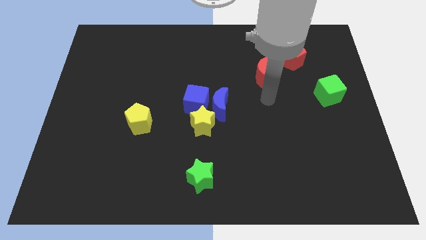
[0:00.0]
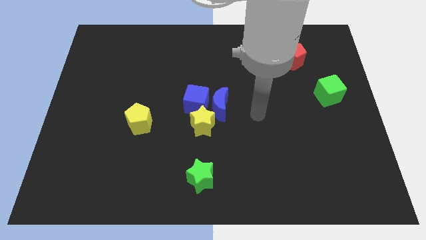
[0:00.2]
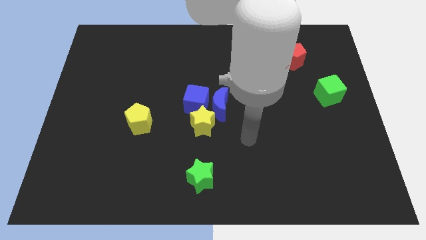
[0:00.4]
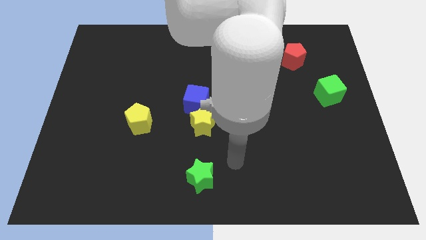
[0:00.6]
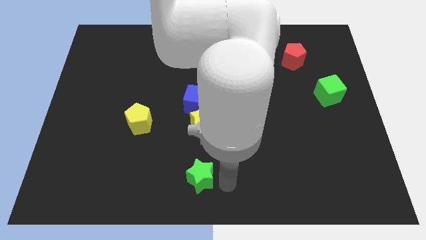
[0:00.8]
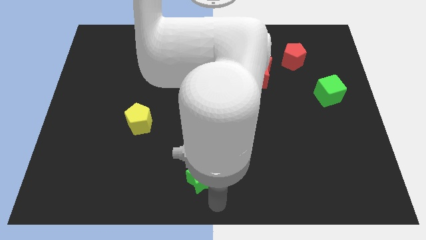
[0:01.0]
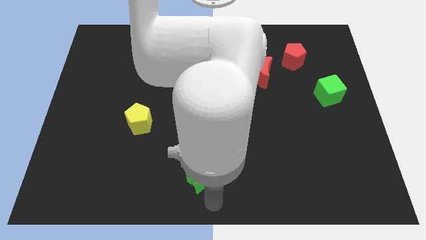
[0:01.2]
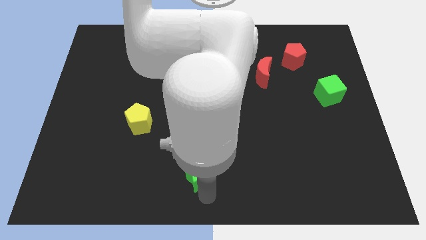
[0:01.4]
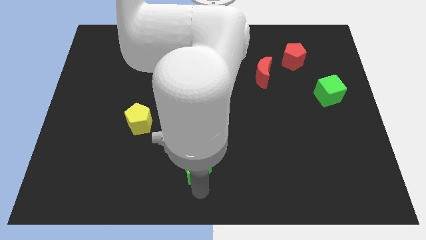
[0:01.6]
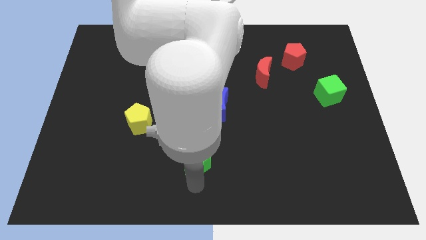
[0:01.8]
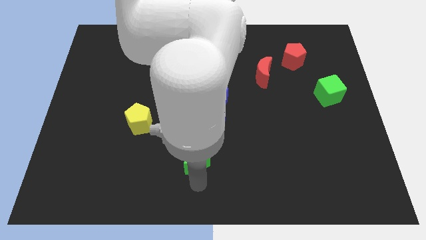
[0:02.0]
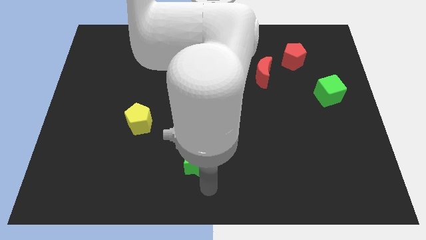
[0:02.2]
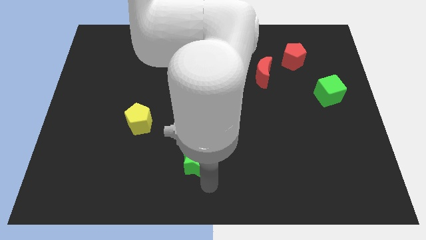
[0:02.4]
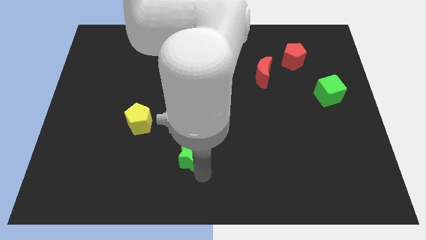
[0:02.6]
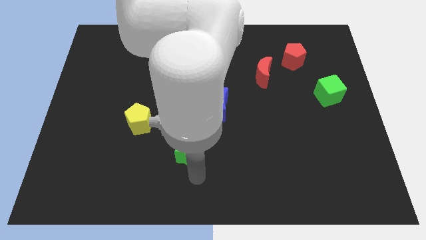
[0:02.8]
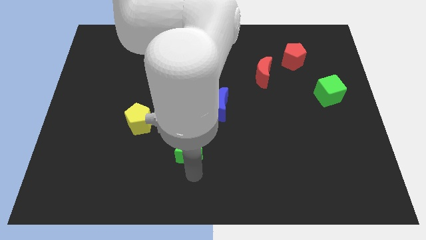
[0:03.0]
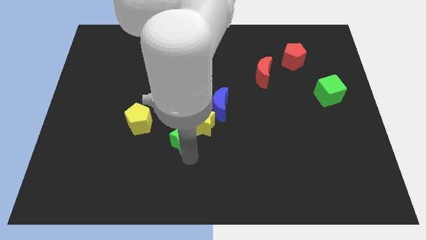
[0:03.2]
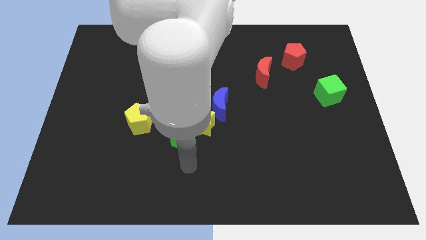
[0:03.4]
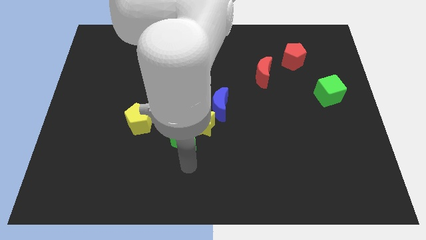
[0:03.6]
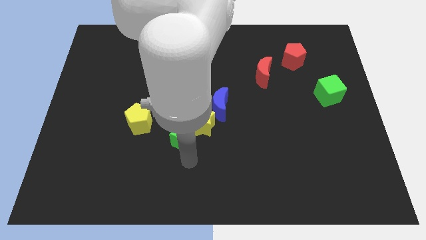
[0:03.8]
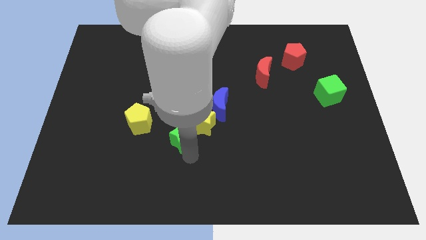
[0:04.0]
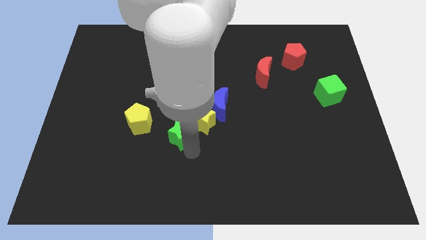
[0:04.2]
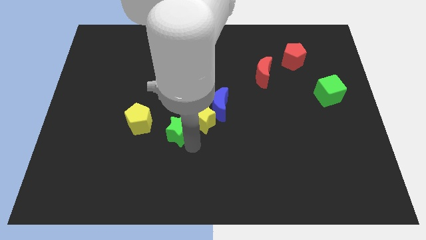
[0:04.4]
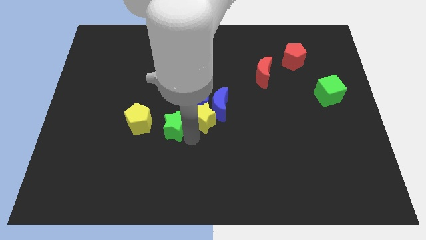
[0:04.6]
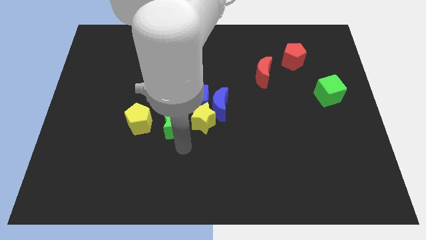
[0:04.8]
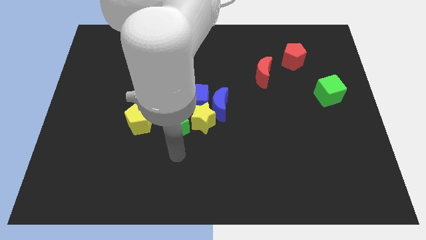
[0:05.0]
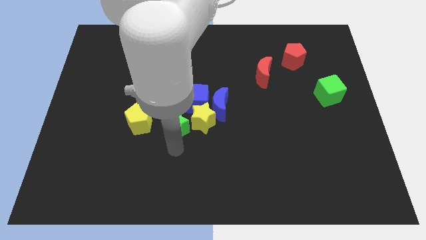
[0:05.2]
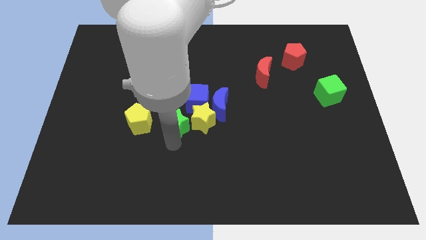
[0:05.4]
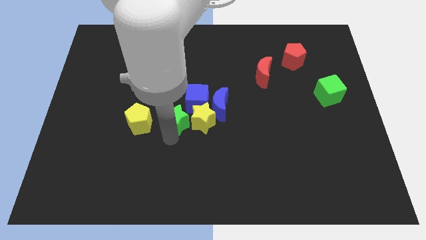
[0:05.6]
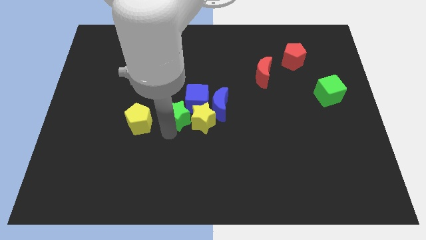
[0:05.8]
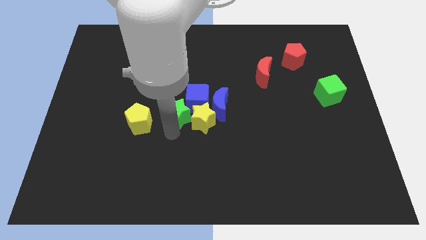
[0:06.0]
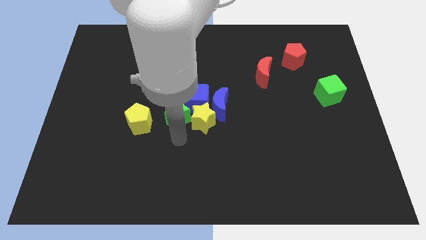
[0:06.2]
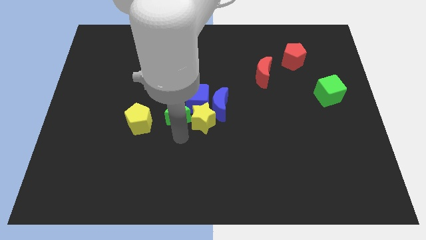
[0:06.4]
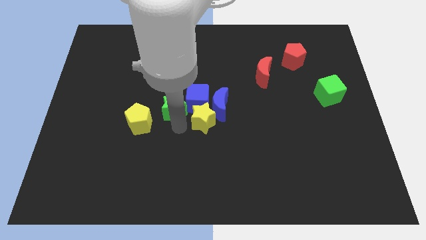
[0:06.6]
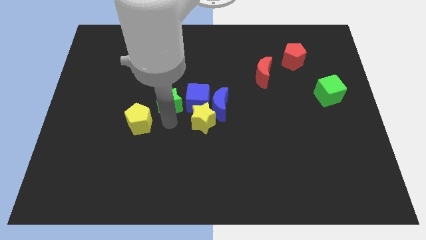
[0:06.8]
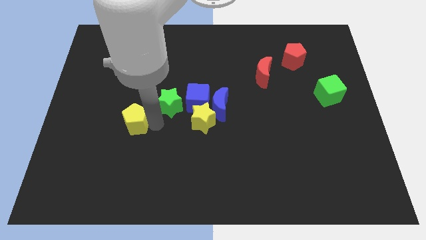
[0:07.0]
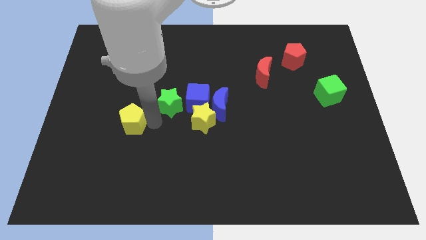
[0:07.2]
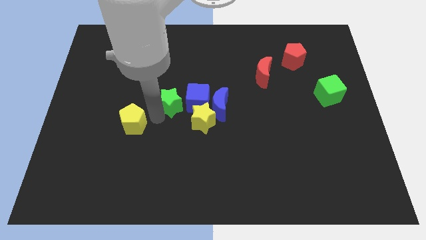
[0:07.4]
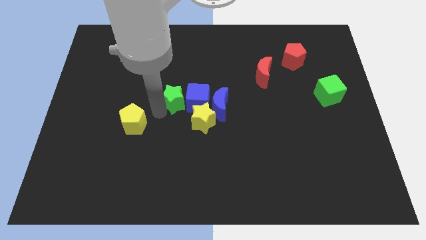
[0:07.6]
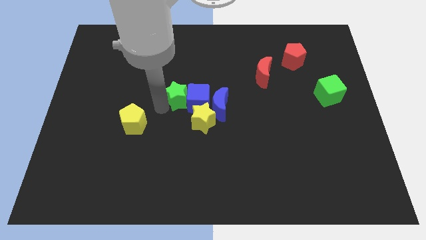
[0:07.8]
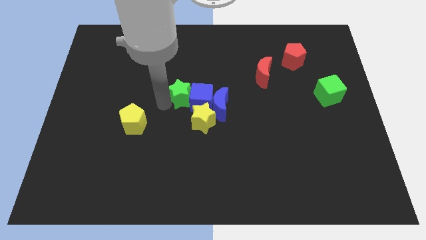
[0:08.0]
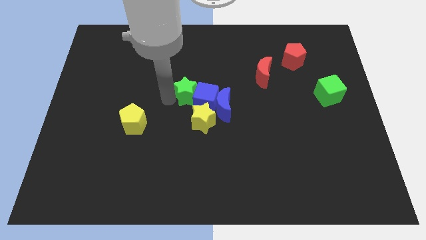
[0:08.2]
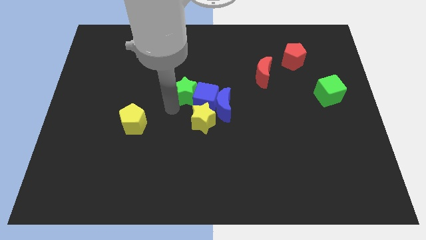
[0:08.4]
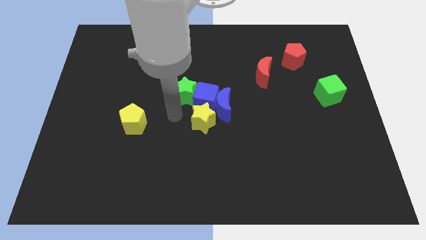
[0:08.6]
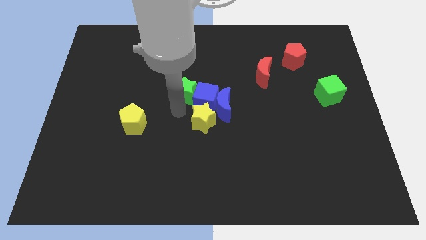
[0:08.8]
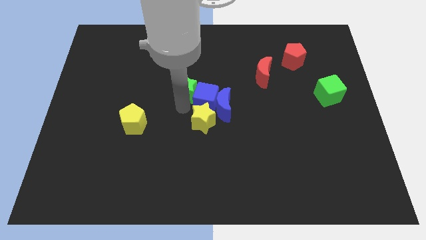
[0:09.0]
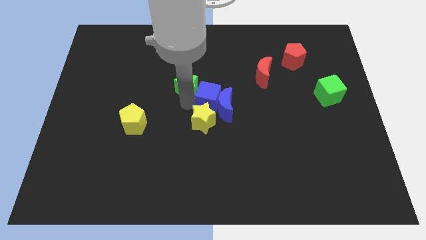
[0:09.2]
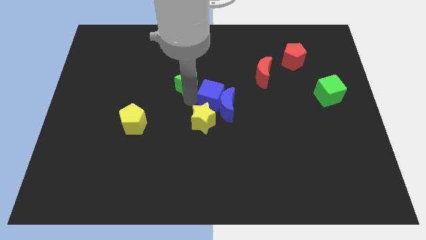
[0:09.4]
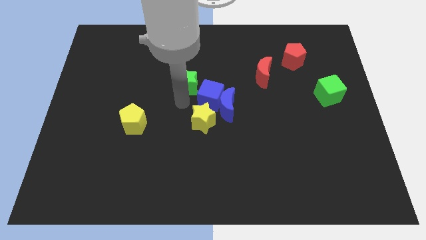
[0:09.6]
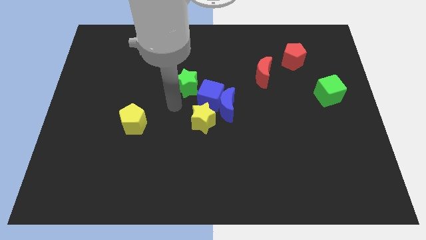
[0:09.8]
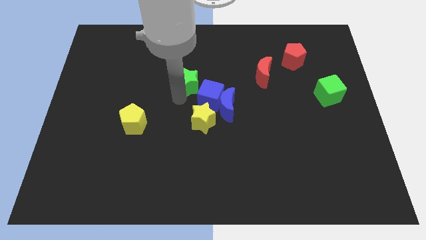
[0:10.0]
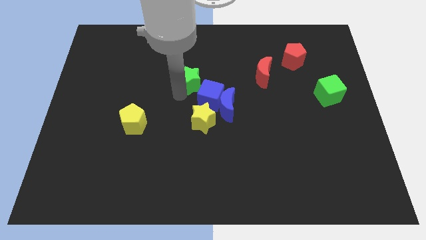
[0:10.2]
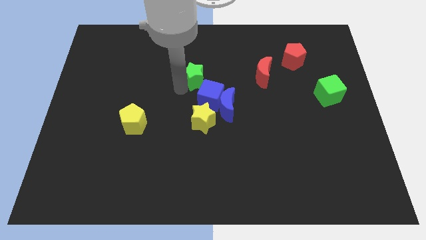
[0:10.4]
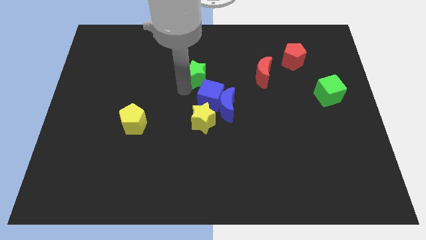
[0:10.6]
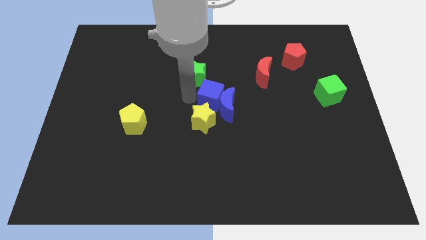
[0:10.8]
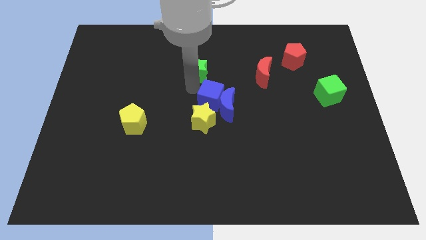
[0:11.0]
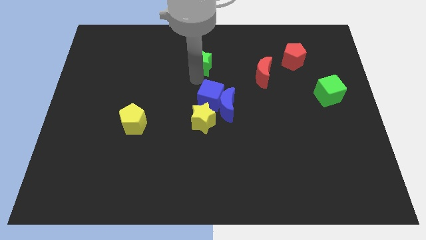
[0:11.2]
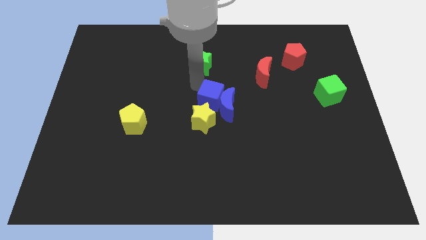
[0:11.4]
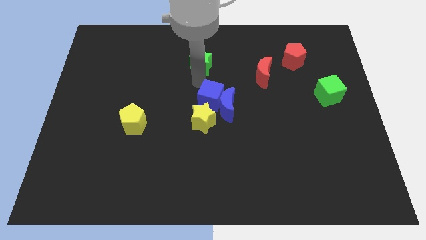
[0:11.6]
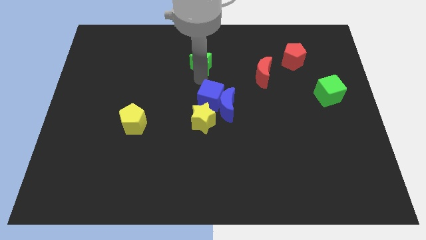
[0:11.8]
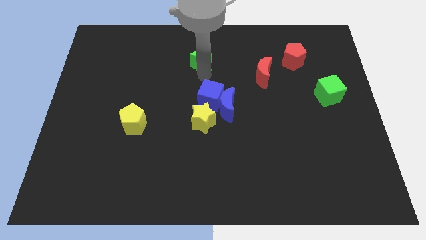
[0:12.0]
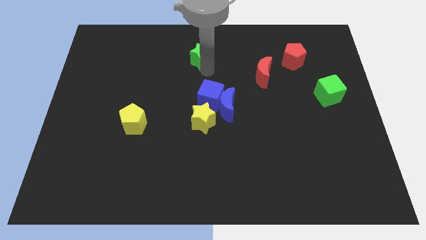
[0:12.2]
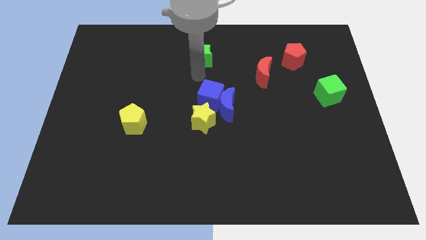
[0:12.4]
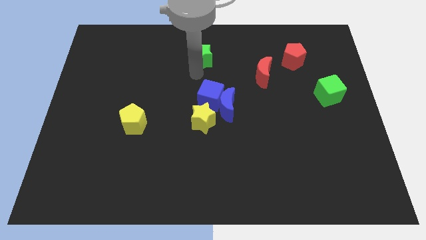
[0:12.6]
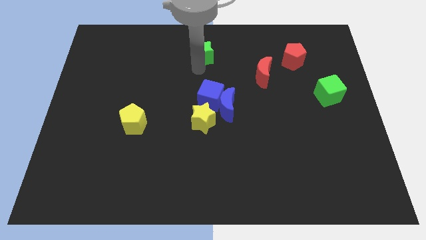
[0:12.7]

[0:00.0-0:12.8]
slide the green star to the top
